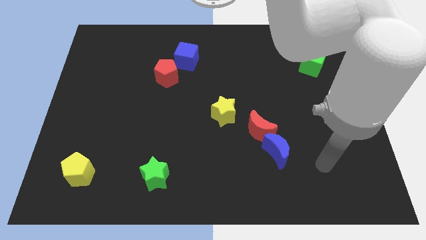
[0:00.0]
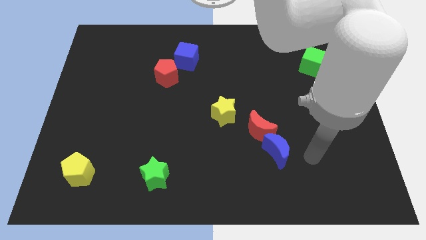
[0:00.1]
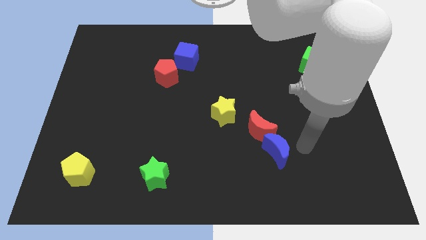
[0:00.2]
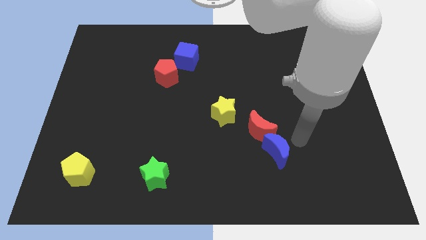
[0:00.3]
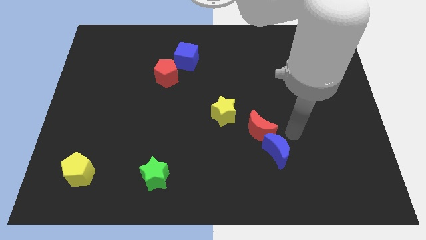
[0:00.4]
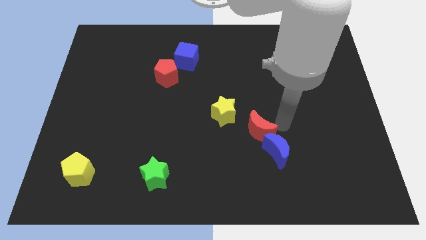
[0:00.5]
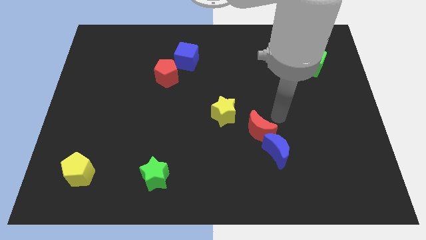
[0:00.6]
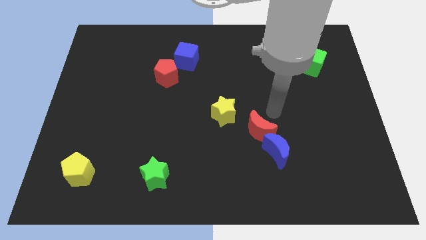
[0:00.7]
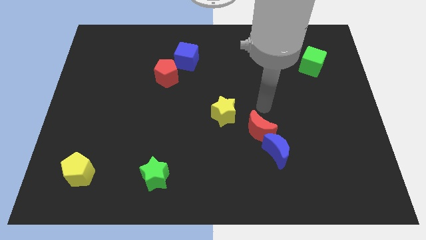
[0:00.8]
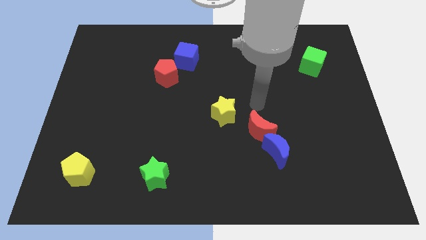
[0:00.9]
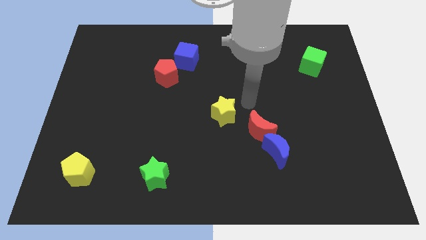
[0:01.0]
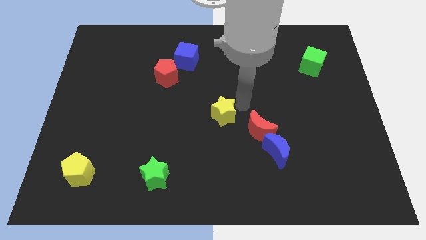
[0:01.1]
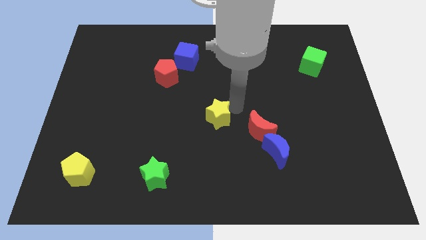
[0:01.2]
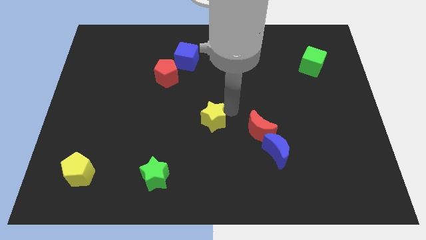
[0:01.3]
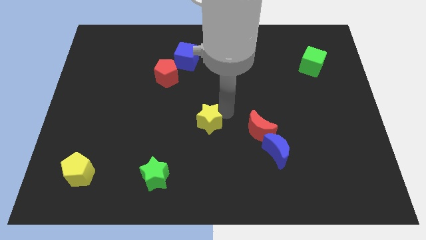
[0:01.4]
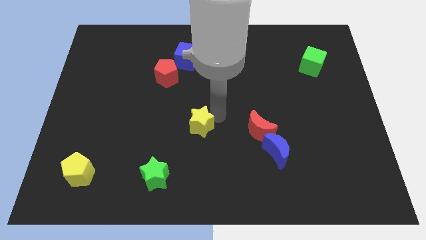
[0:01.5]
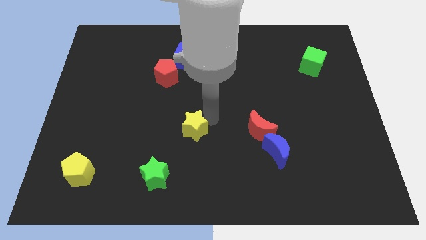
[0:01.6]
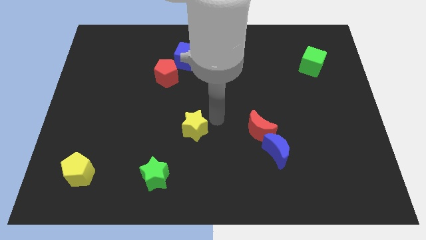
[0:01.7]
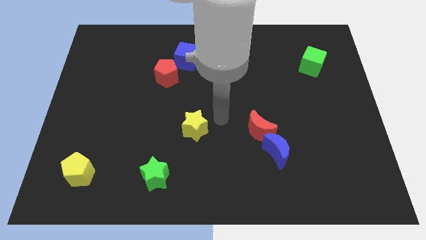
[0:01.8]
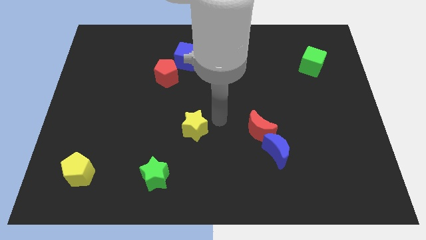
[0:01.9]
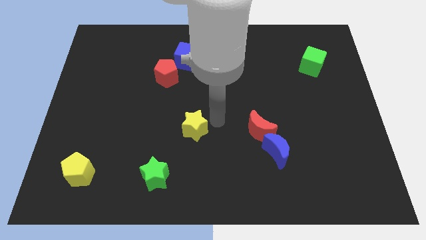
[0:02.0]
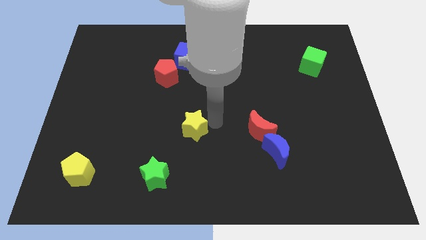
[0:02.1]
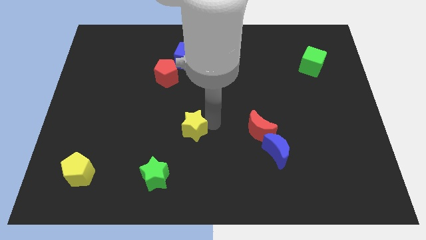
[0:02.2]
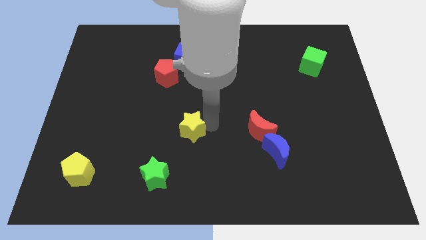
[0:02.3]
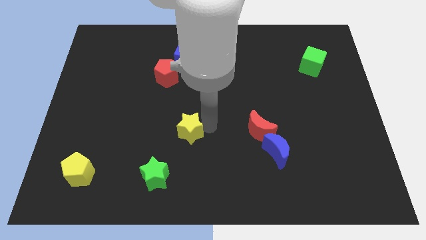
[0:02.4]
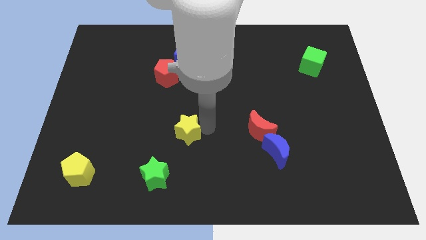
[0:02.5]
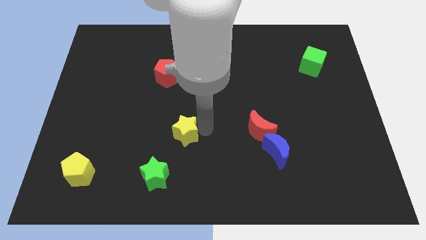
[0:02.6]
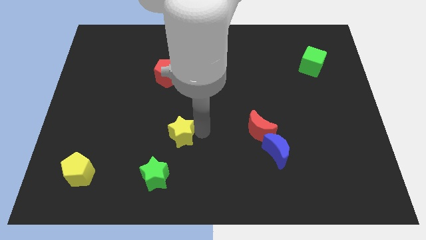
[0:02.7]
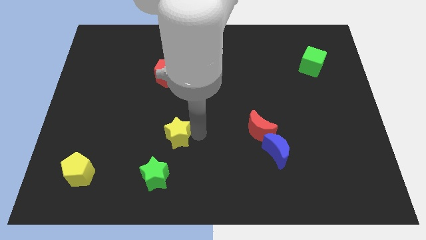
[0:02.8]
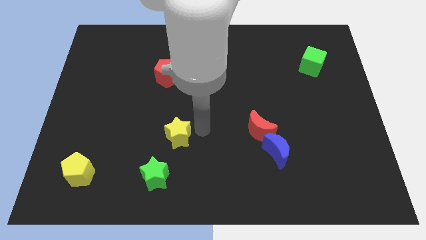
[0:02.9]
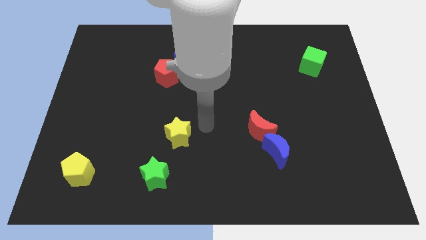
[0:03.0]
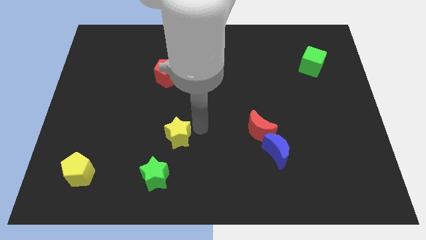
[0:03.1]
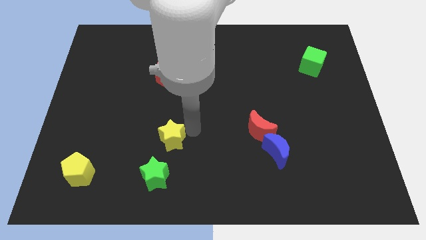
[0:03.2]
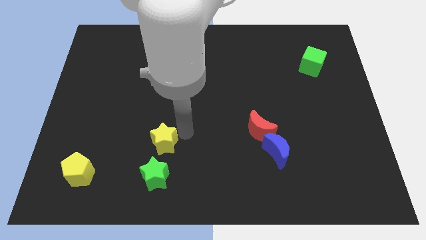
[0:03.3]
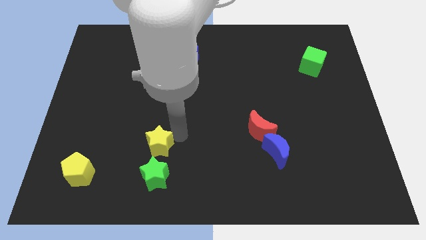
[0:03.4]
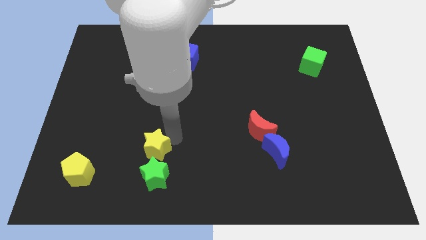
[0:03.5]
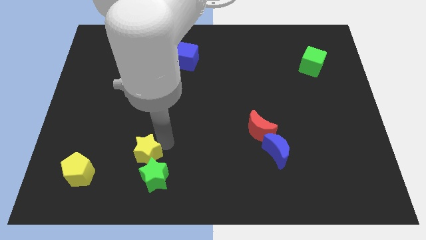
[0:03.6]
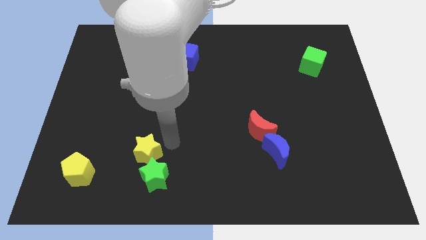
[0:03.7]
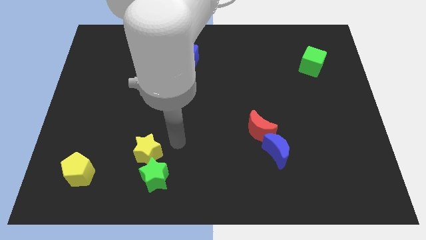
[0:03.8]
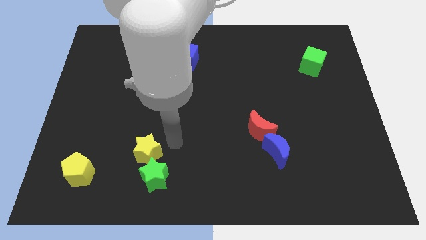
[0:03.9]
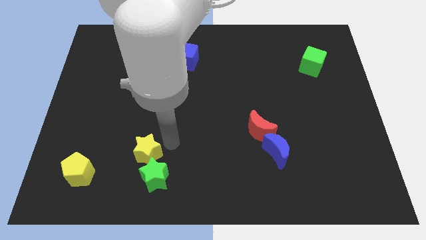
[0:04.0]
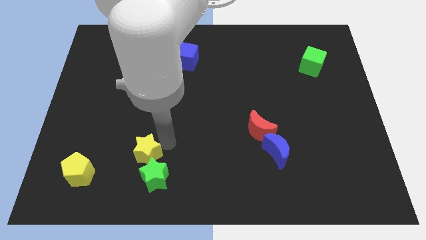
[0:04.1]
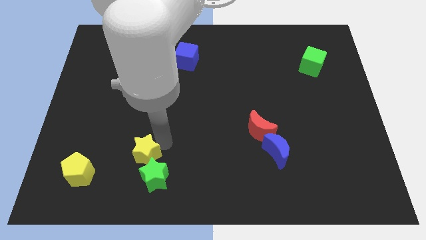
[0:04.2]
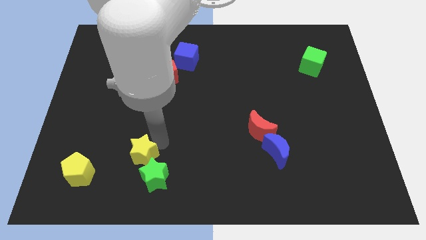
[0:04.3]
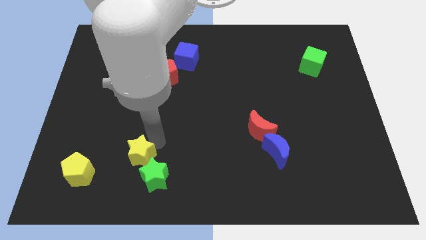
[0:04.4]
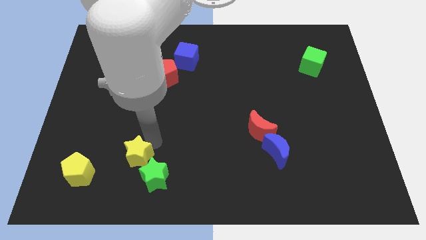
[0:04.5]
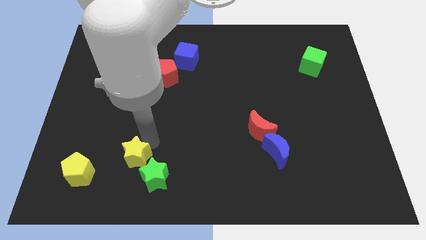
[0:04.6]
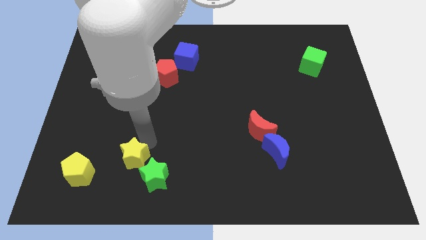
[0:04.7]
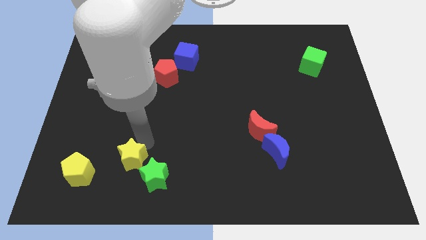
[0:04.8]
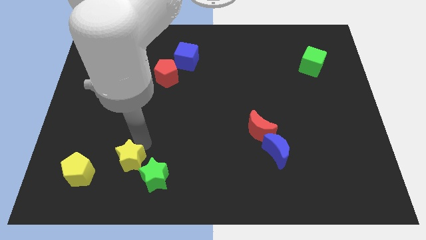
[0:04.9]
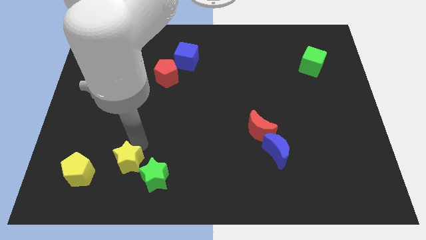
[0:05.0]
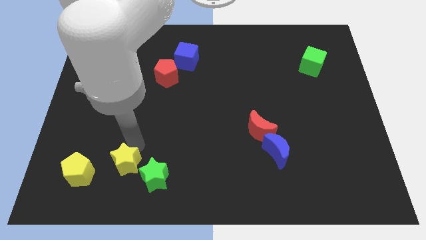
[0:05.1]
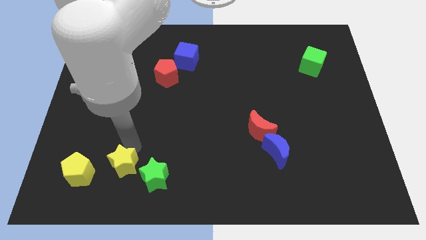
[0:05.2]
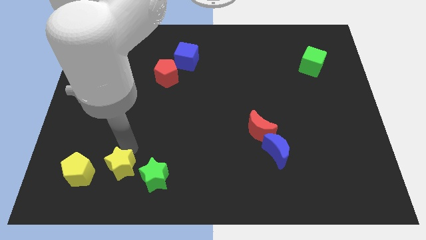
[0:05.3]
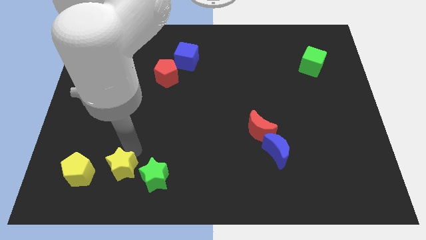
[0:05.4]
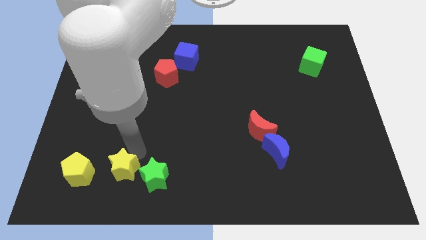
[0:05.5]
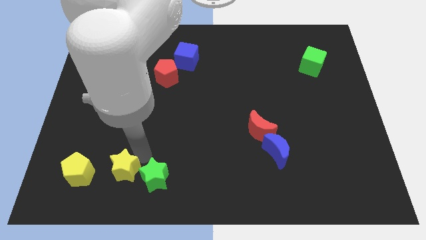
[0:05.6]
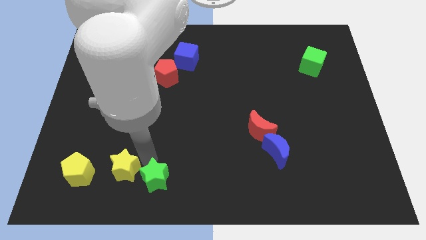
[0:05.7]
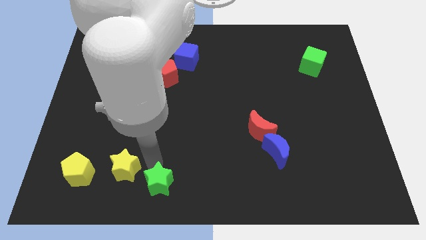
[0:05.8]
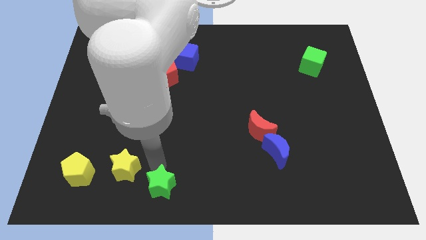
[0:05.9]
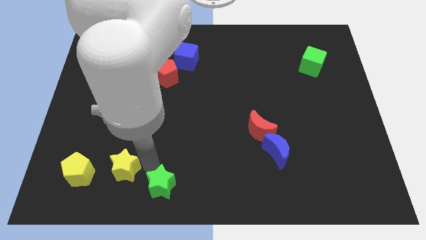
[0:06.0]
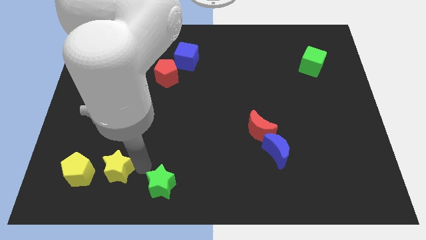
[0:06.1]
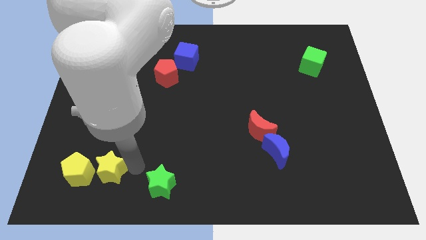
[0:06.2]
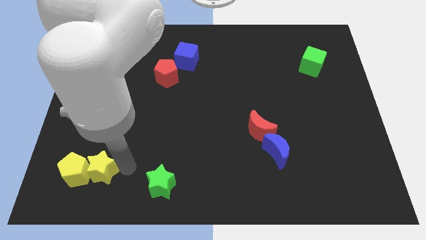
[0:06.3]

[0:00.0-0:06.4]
put the yellow star towards the yellow pentagon

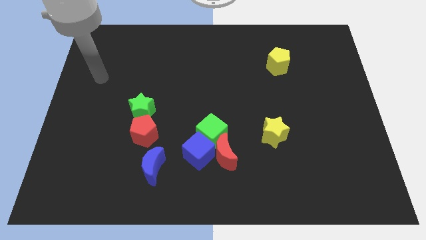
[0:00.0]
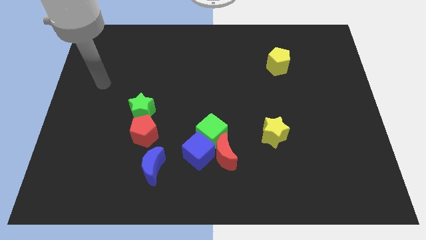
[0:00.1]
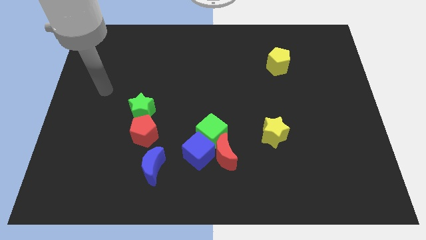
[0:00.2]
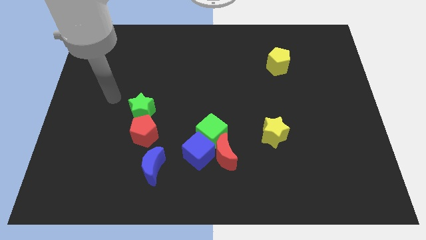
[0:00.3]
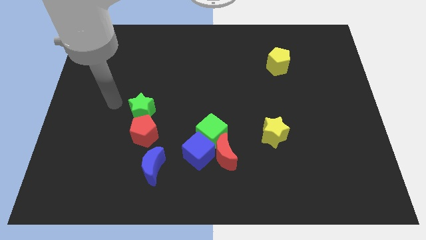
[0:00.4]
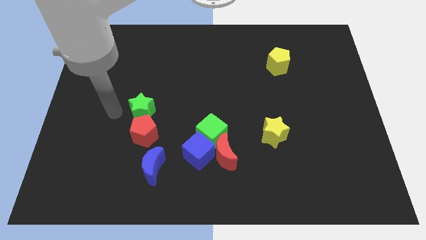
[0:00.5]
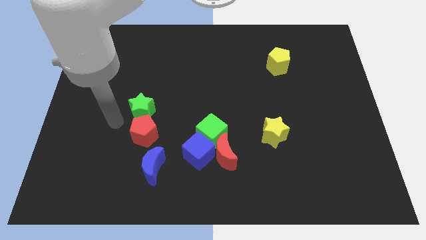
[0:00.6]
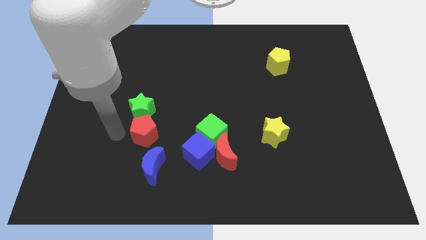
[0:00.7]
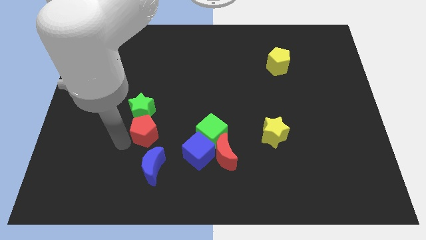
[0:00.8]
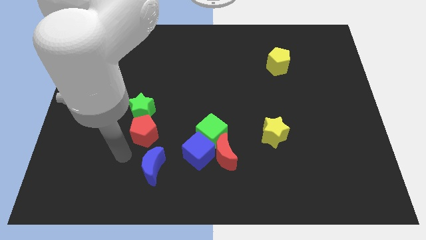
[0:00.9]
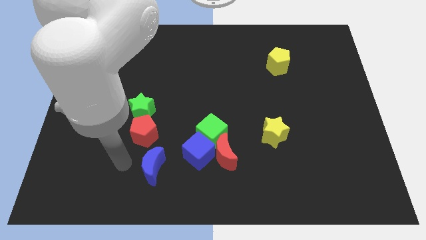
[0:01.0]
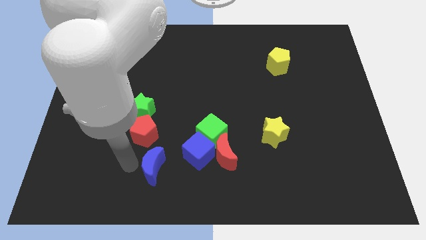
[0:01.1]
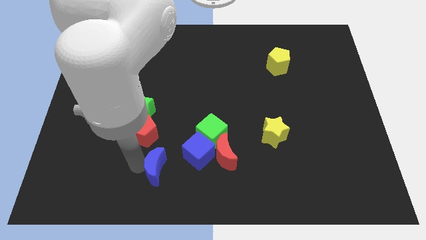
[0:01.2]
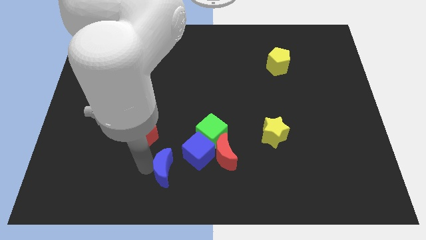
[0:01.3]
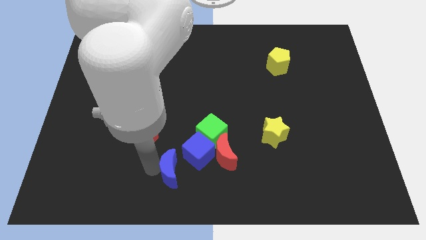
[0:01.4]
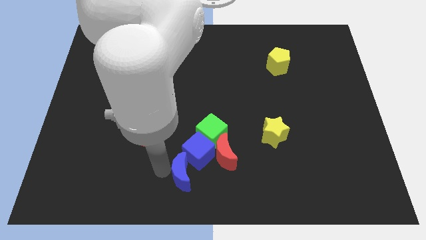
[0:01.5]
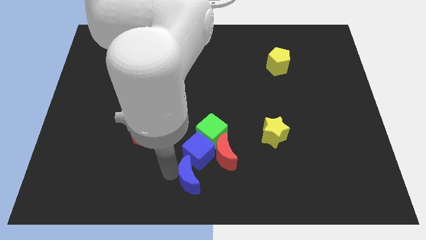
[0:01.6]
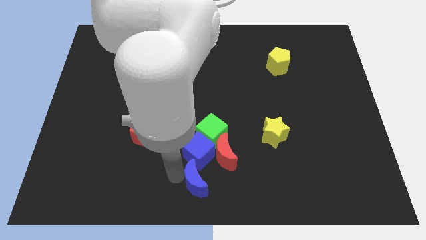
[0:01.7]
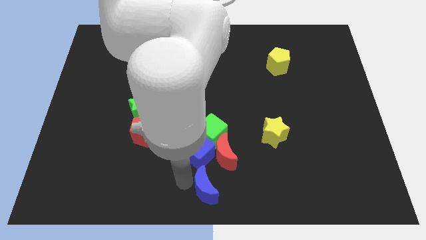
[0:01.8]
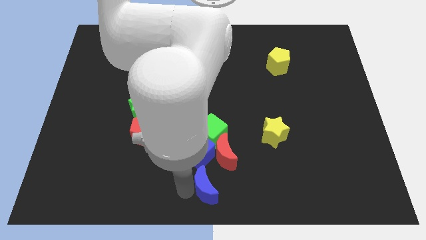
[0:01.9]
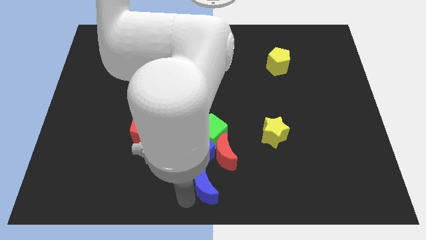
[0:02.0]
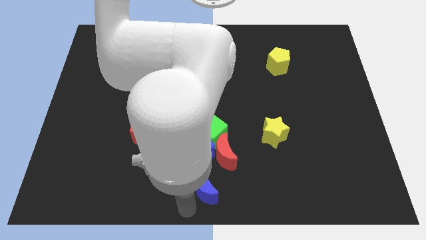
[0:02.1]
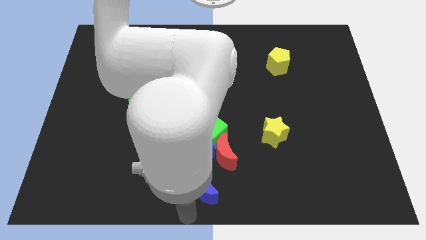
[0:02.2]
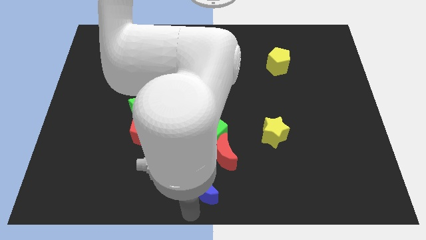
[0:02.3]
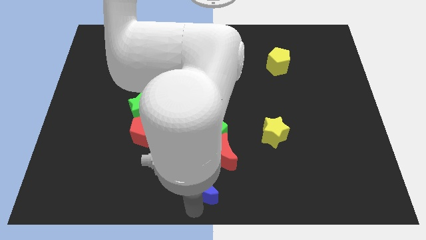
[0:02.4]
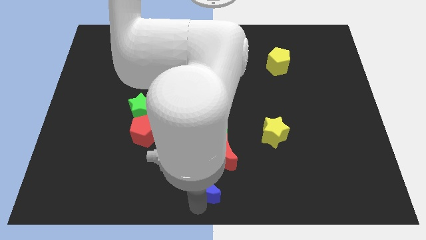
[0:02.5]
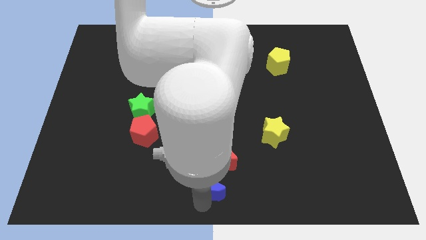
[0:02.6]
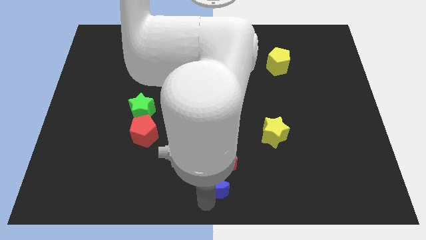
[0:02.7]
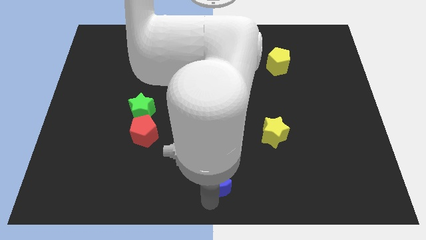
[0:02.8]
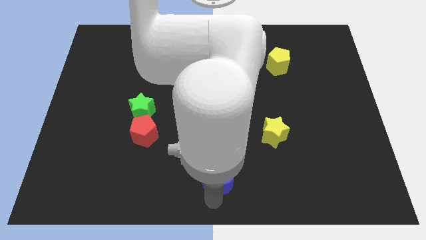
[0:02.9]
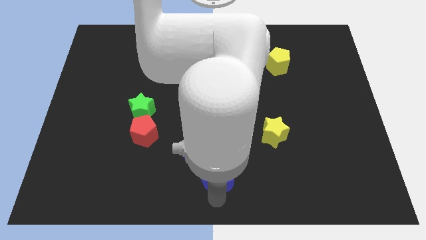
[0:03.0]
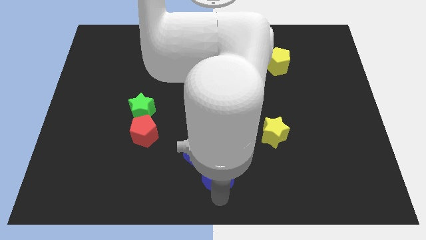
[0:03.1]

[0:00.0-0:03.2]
push the blue moon towards the red moon
